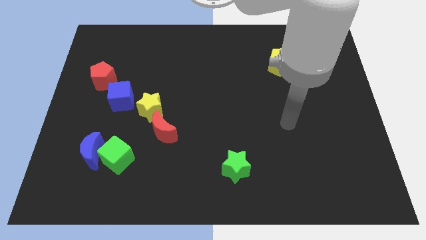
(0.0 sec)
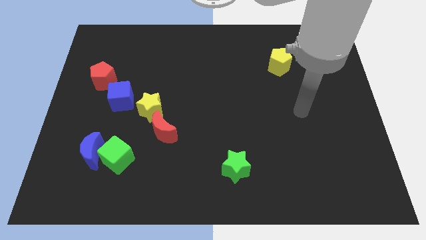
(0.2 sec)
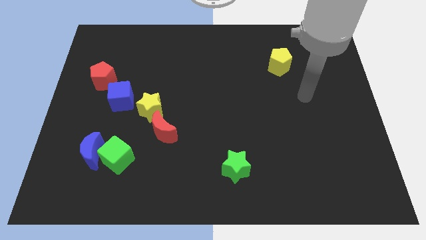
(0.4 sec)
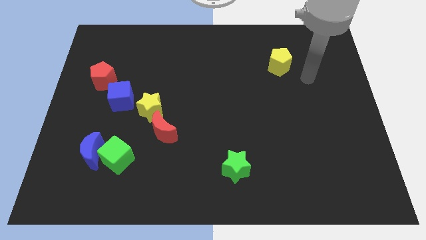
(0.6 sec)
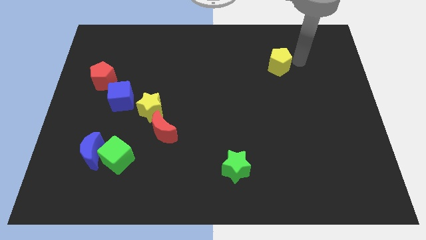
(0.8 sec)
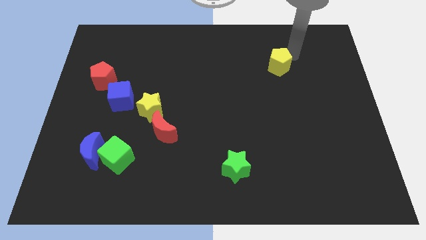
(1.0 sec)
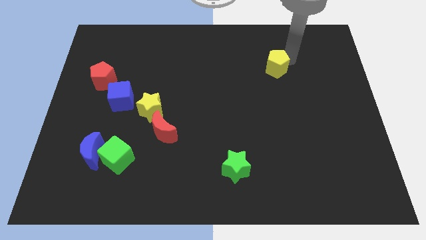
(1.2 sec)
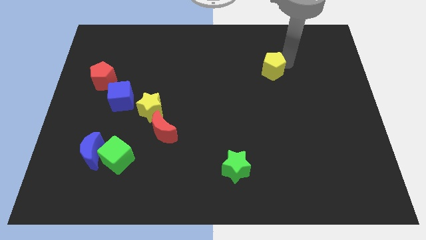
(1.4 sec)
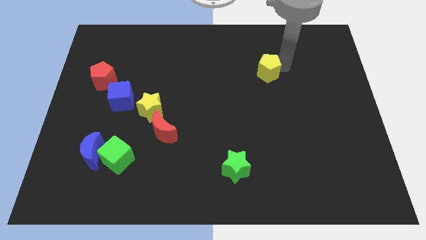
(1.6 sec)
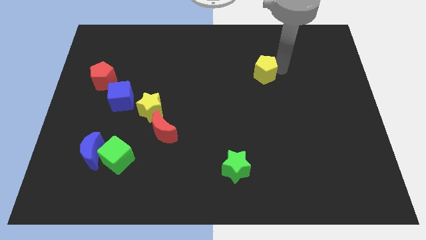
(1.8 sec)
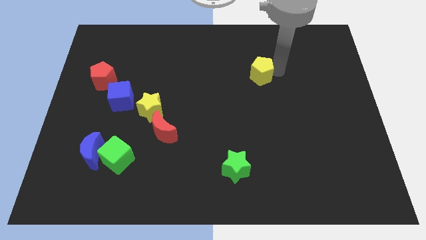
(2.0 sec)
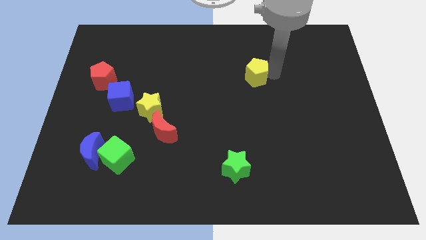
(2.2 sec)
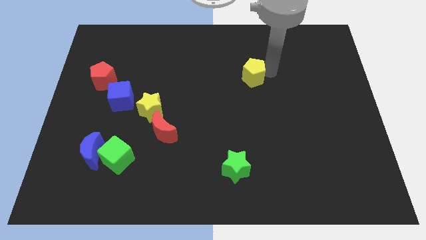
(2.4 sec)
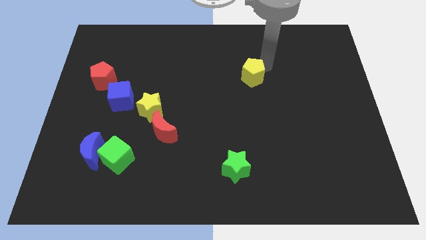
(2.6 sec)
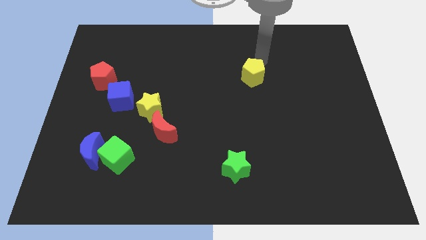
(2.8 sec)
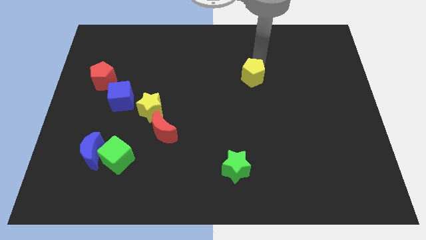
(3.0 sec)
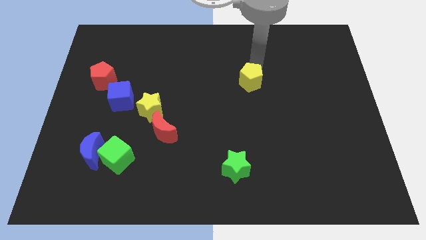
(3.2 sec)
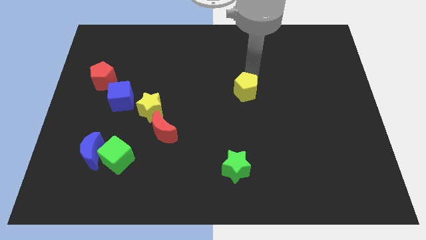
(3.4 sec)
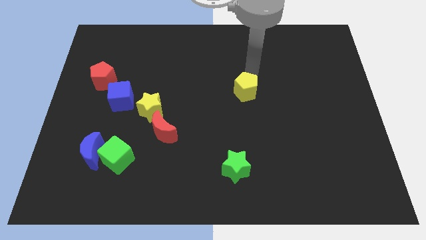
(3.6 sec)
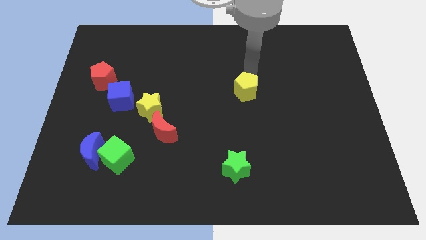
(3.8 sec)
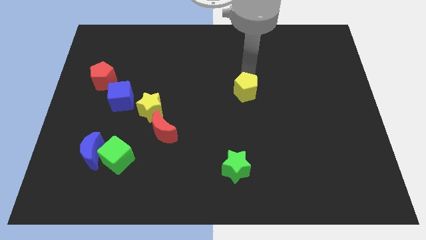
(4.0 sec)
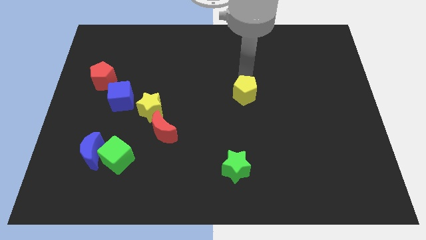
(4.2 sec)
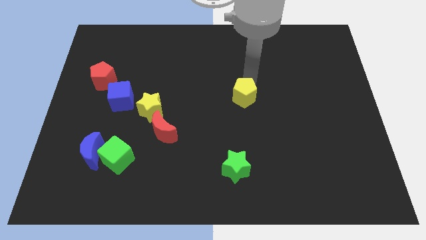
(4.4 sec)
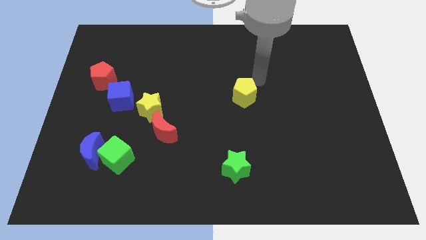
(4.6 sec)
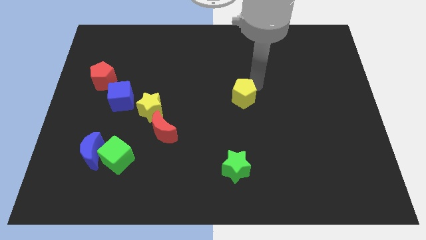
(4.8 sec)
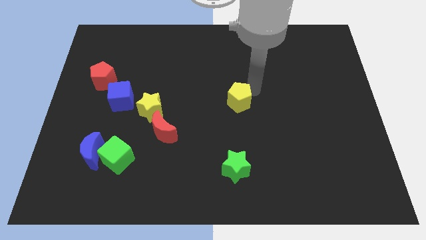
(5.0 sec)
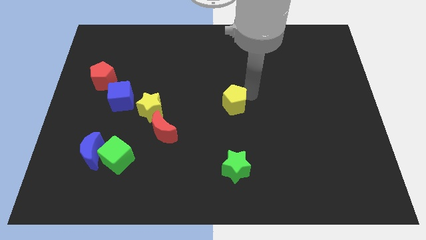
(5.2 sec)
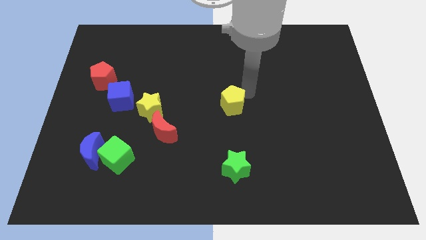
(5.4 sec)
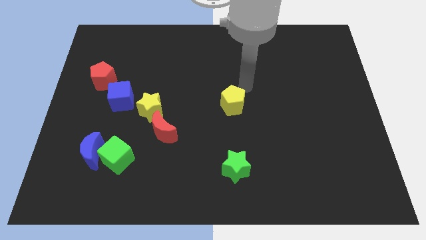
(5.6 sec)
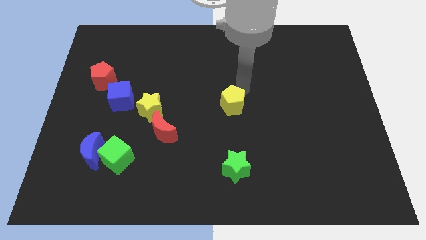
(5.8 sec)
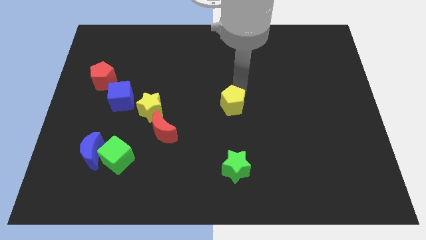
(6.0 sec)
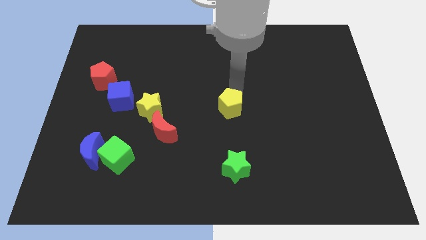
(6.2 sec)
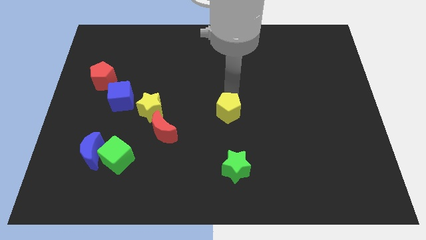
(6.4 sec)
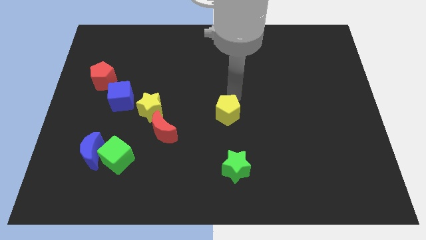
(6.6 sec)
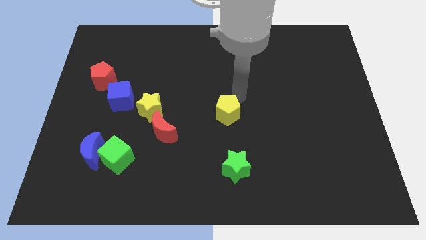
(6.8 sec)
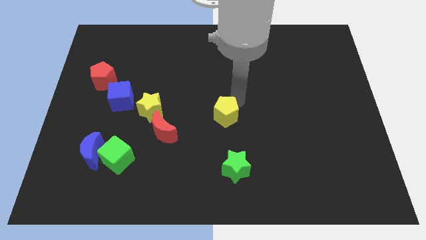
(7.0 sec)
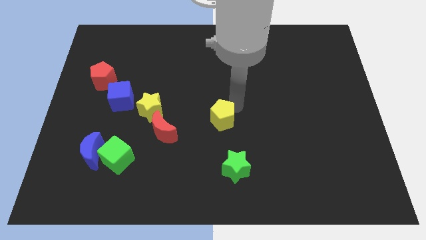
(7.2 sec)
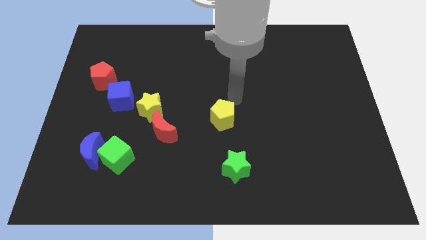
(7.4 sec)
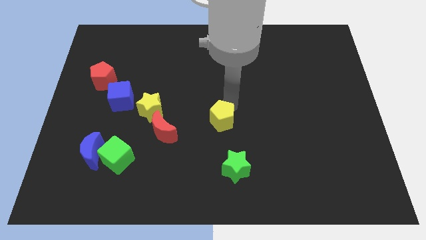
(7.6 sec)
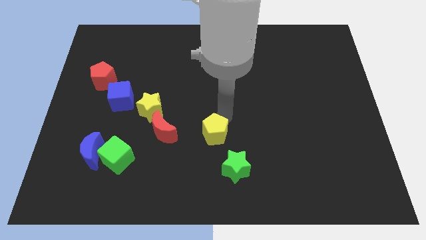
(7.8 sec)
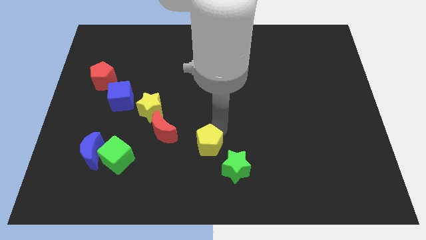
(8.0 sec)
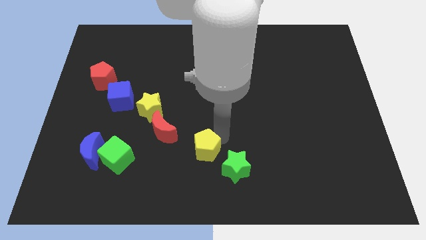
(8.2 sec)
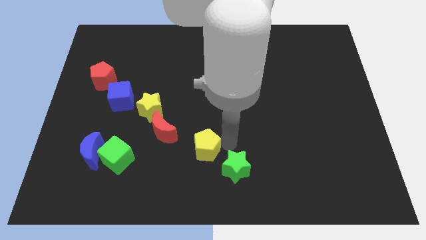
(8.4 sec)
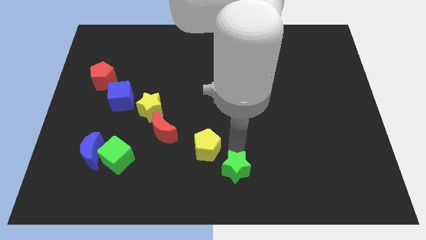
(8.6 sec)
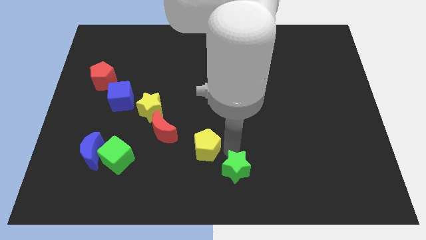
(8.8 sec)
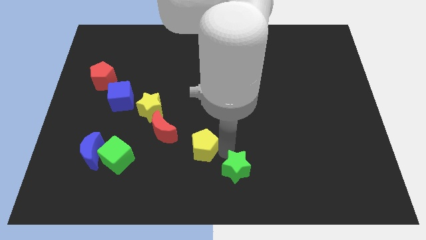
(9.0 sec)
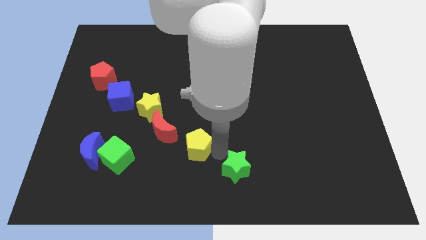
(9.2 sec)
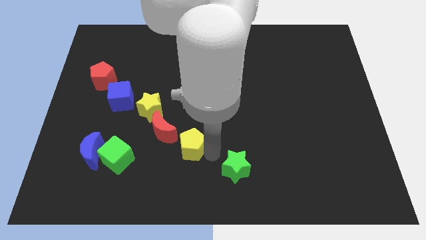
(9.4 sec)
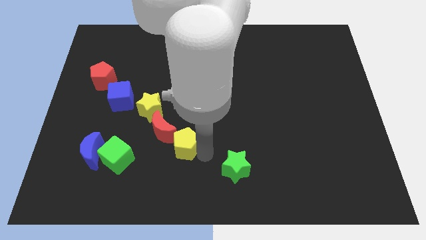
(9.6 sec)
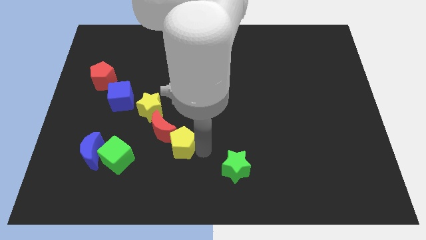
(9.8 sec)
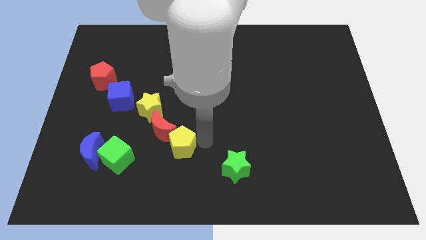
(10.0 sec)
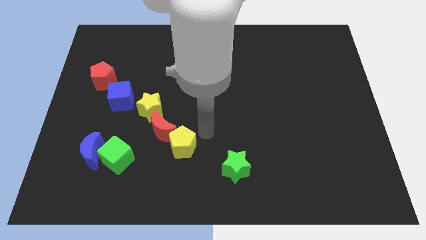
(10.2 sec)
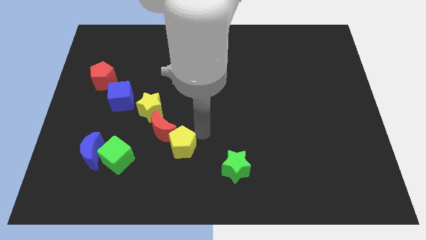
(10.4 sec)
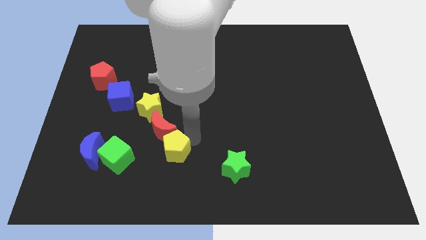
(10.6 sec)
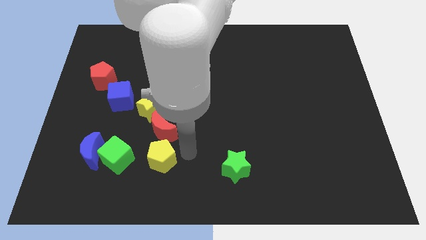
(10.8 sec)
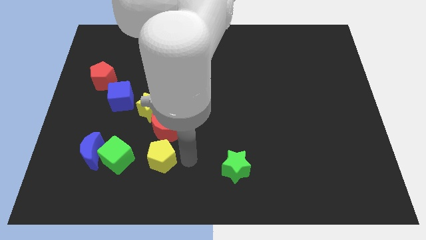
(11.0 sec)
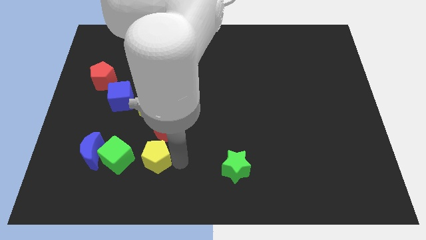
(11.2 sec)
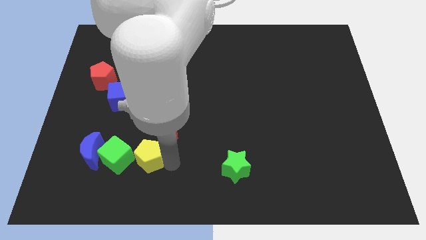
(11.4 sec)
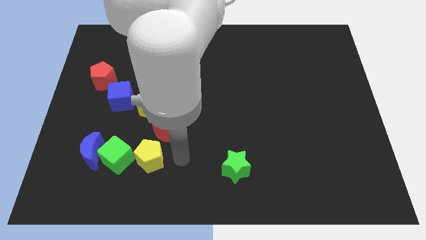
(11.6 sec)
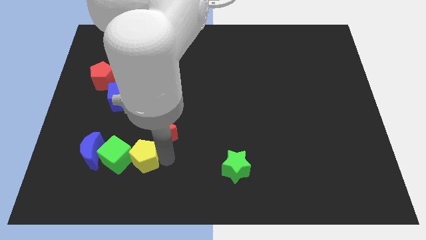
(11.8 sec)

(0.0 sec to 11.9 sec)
put the yellow pentagon next to the green cube

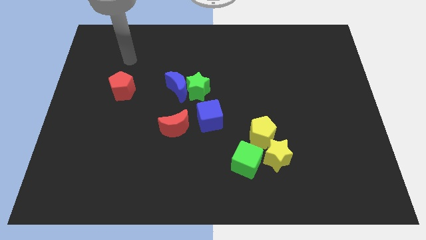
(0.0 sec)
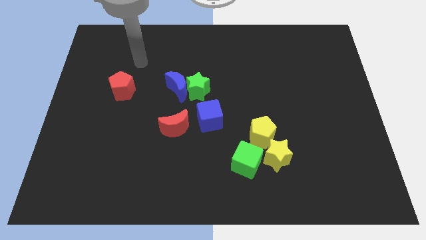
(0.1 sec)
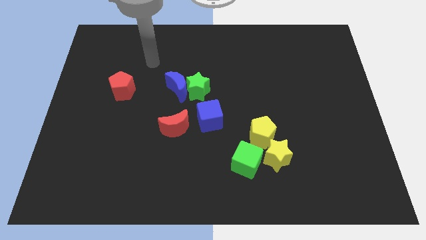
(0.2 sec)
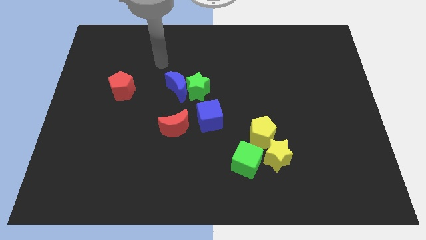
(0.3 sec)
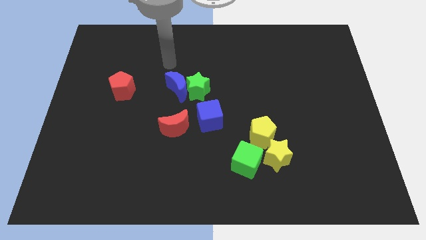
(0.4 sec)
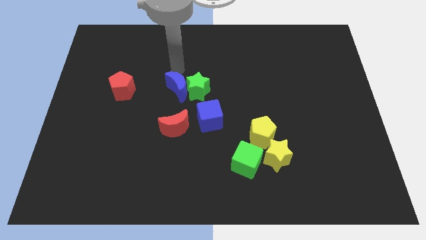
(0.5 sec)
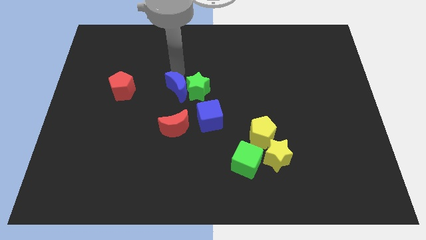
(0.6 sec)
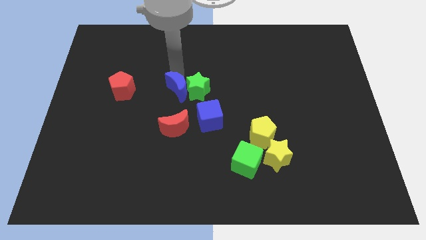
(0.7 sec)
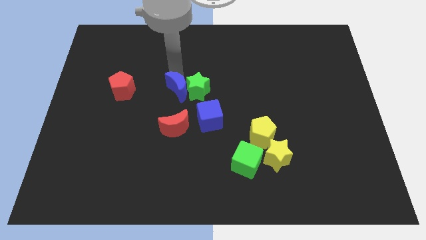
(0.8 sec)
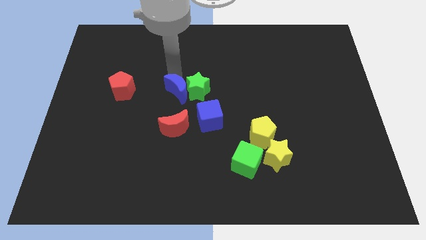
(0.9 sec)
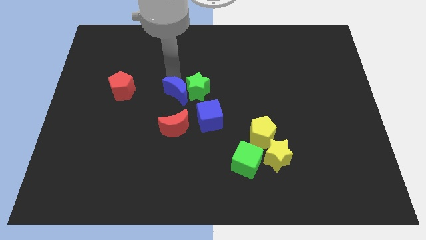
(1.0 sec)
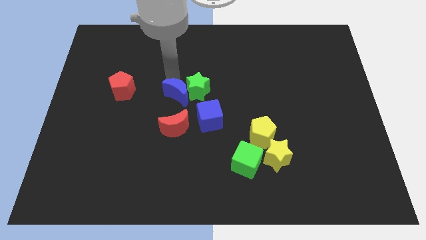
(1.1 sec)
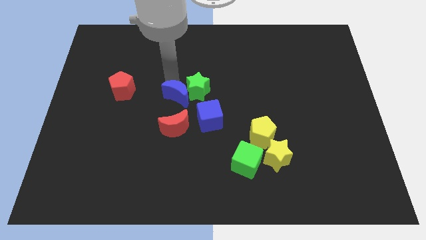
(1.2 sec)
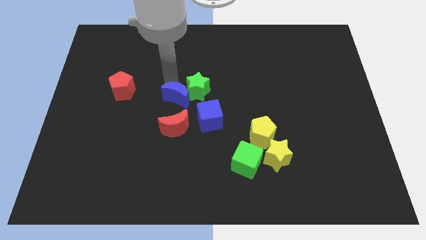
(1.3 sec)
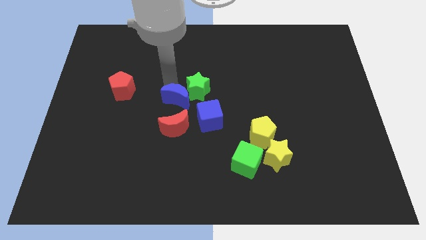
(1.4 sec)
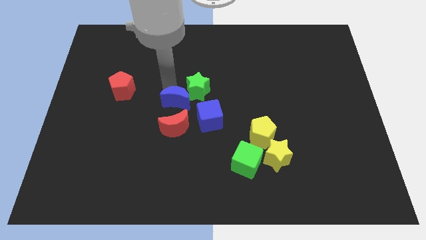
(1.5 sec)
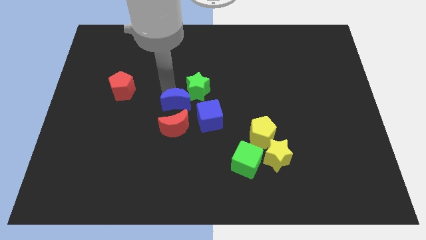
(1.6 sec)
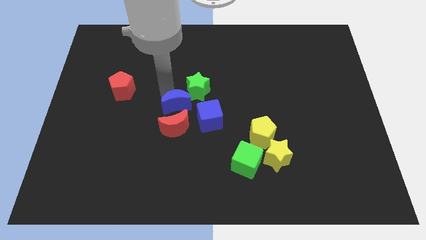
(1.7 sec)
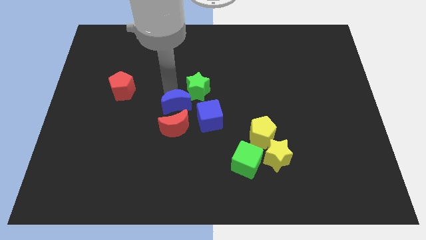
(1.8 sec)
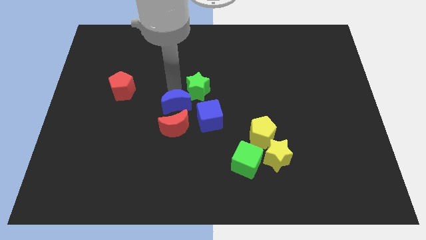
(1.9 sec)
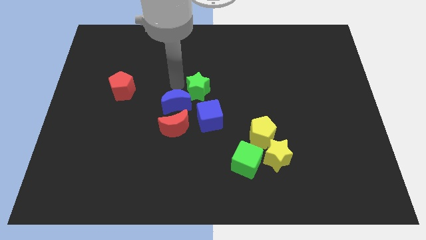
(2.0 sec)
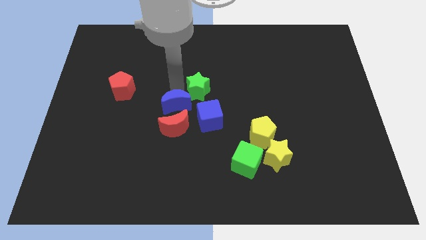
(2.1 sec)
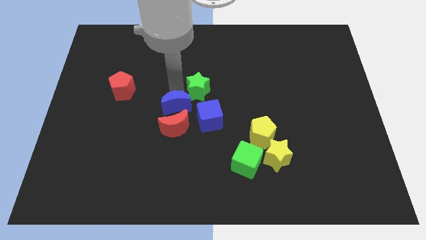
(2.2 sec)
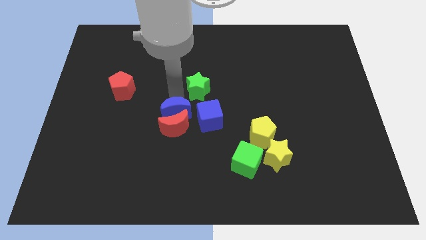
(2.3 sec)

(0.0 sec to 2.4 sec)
put the blue moon next to the red moon
